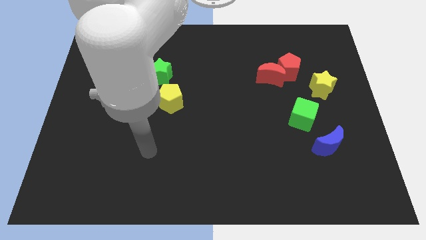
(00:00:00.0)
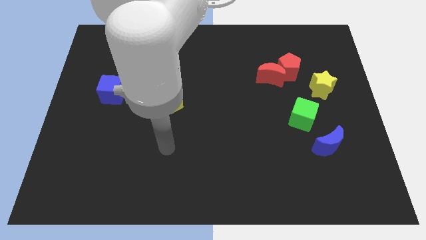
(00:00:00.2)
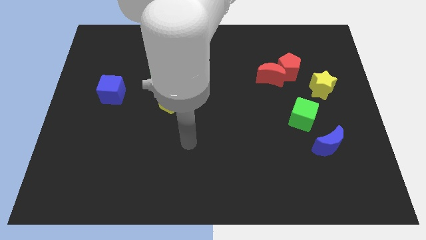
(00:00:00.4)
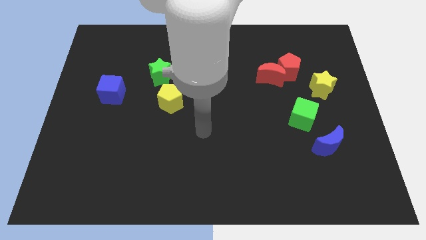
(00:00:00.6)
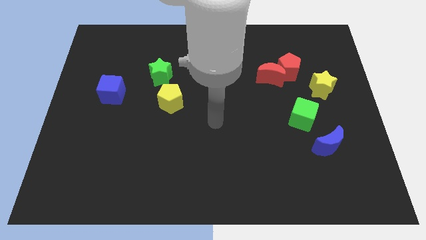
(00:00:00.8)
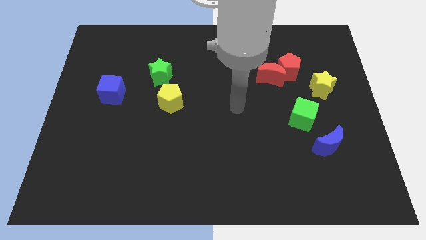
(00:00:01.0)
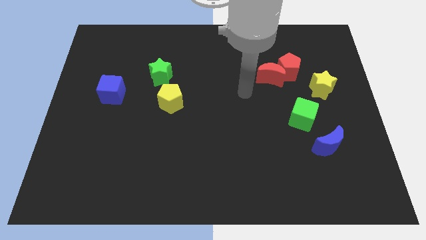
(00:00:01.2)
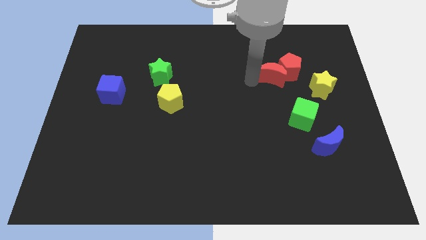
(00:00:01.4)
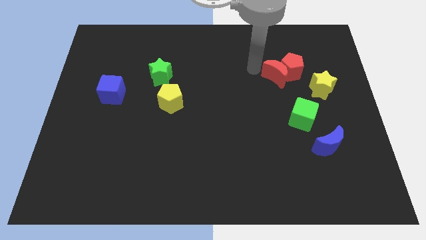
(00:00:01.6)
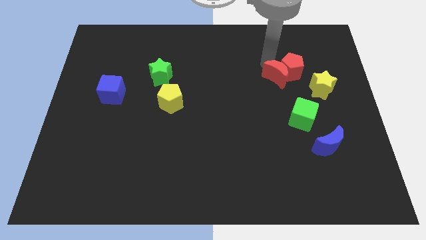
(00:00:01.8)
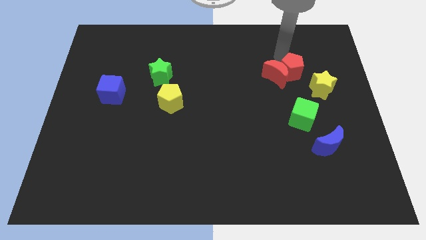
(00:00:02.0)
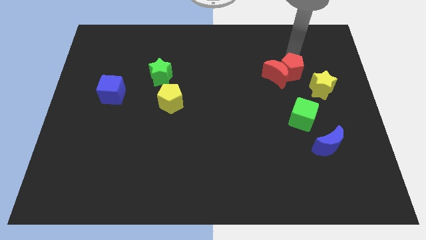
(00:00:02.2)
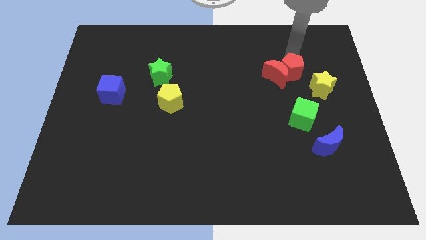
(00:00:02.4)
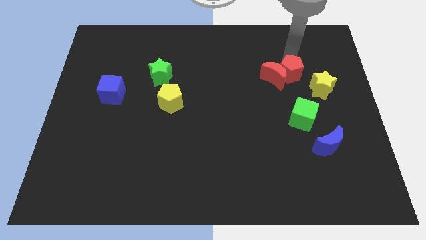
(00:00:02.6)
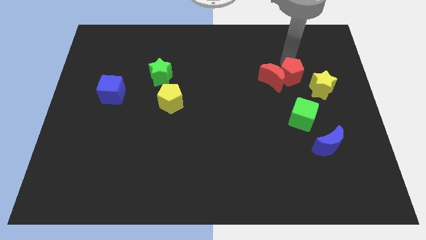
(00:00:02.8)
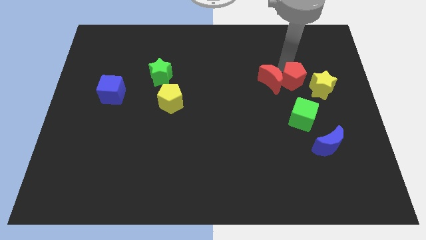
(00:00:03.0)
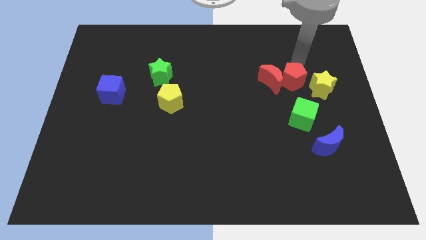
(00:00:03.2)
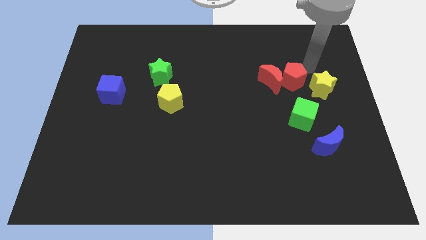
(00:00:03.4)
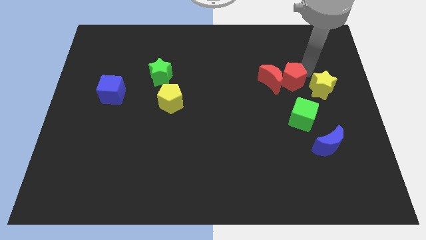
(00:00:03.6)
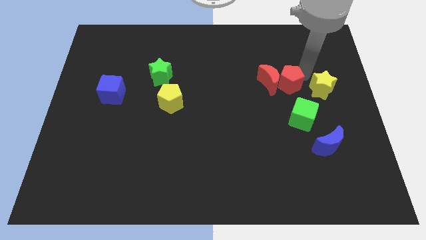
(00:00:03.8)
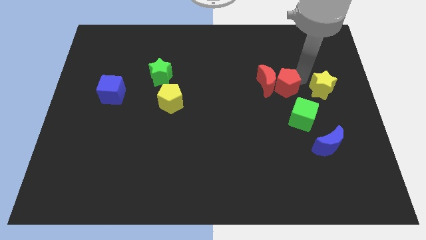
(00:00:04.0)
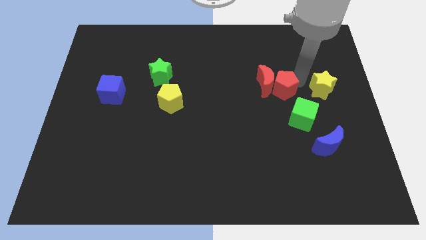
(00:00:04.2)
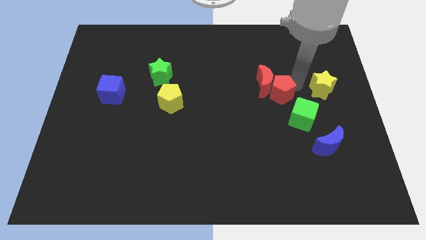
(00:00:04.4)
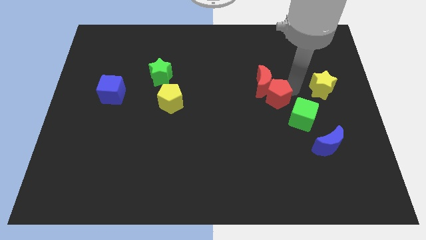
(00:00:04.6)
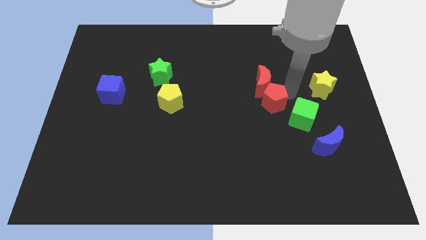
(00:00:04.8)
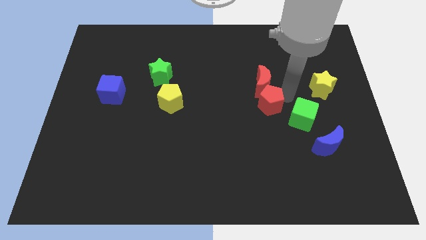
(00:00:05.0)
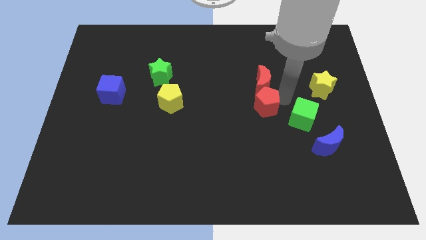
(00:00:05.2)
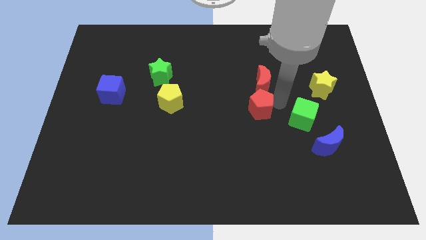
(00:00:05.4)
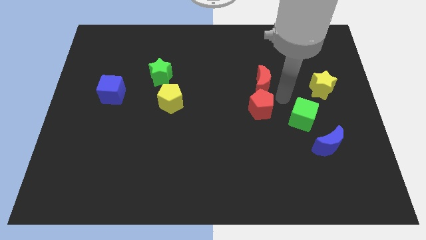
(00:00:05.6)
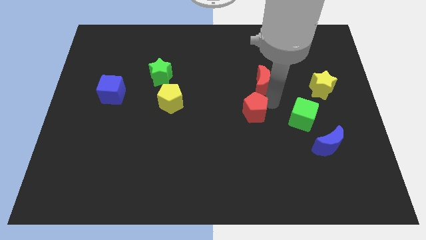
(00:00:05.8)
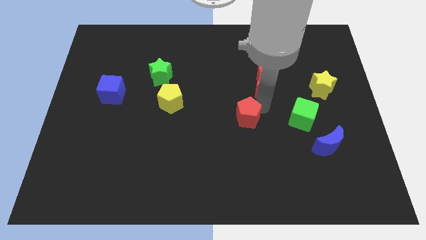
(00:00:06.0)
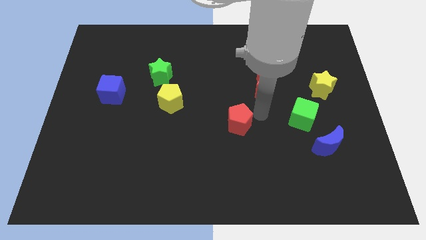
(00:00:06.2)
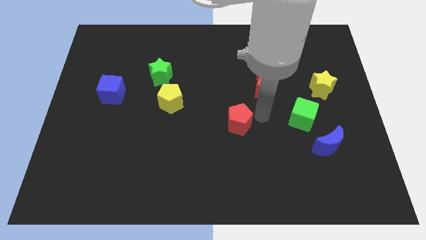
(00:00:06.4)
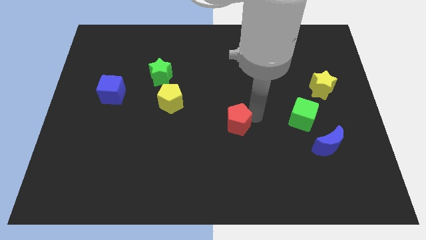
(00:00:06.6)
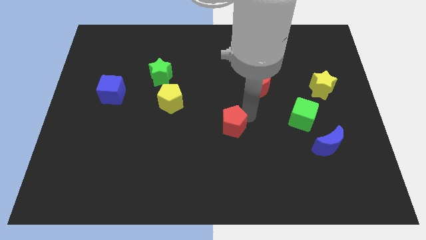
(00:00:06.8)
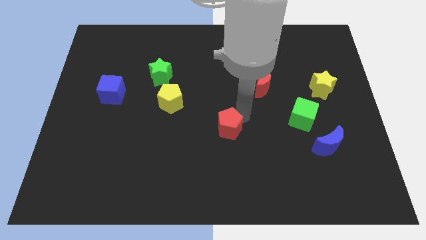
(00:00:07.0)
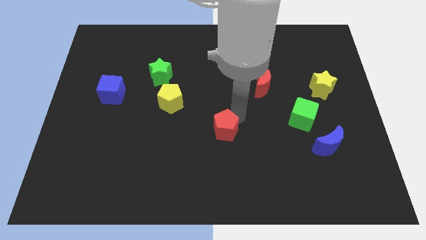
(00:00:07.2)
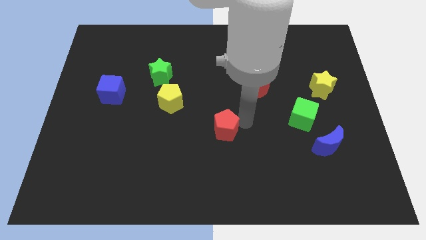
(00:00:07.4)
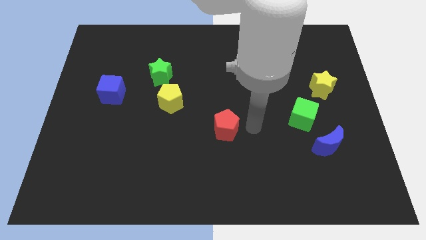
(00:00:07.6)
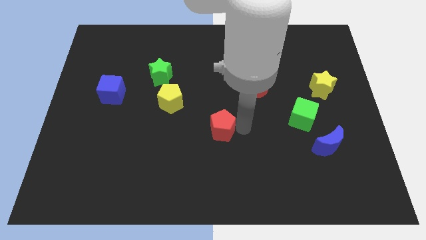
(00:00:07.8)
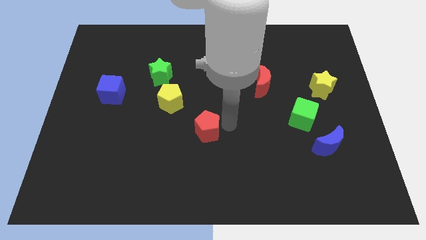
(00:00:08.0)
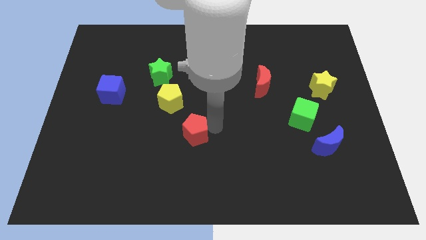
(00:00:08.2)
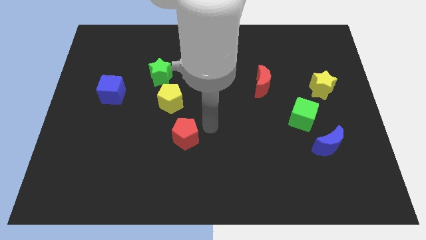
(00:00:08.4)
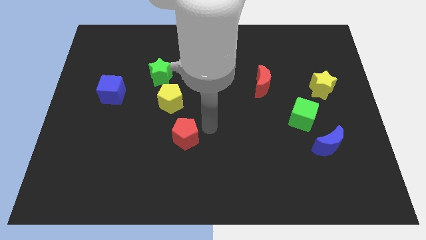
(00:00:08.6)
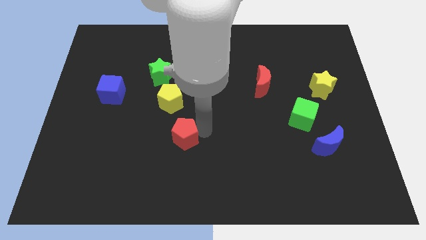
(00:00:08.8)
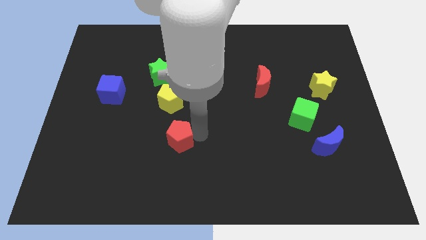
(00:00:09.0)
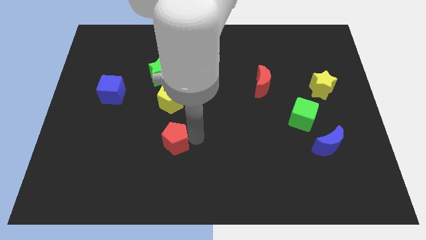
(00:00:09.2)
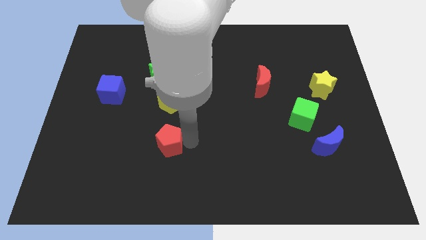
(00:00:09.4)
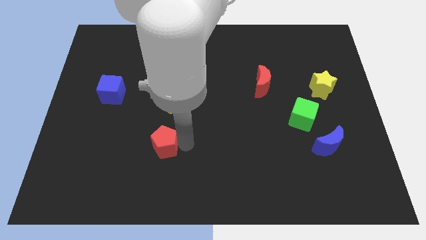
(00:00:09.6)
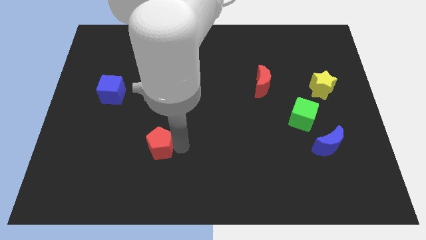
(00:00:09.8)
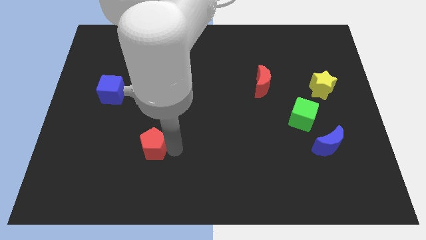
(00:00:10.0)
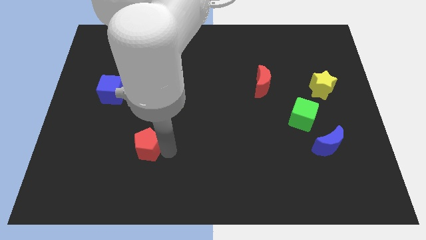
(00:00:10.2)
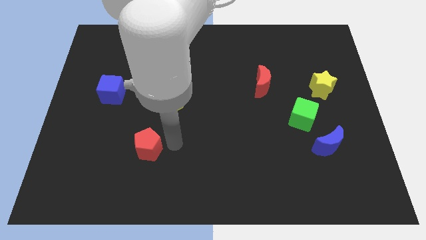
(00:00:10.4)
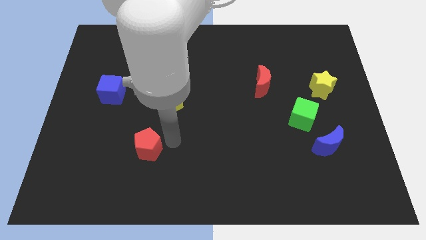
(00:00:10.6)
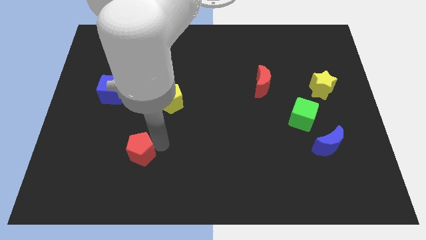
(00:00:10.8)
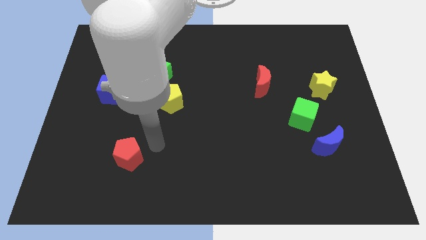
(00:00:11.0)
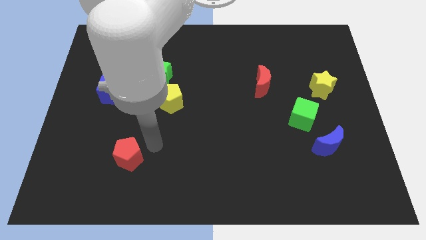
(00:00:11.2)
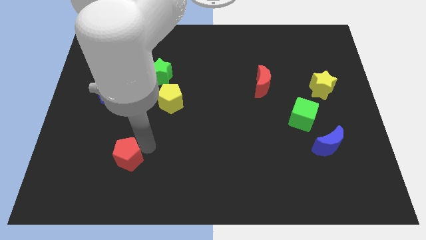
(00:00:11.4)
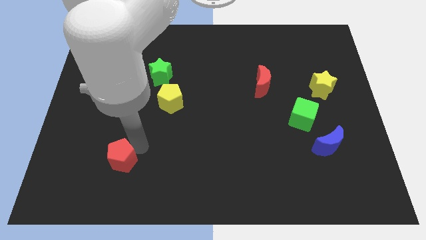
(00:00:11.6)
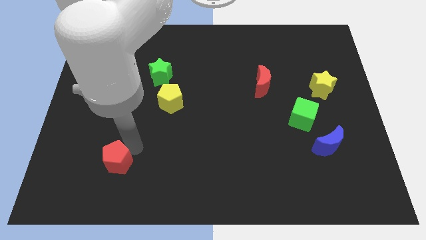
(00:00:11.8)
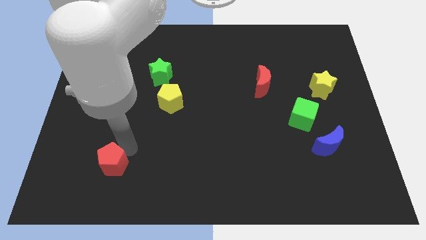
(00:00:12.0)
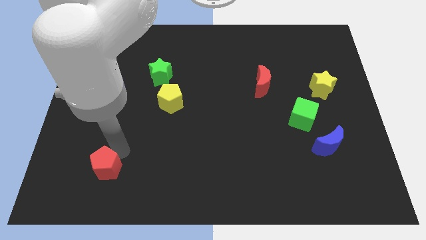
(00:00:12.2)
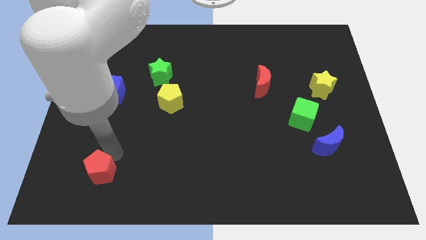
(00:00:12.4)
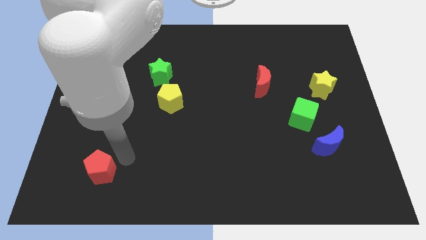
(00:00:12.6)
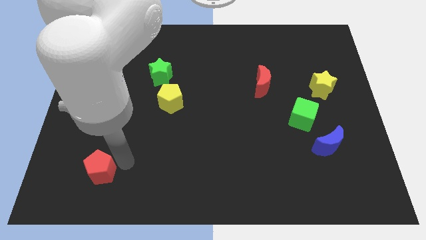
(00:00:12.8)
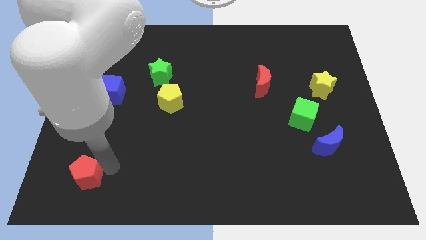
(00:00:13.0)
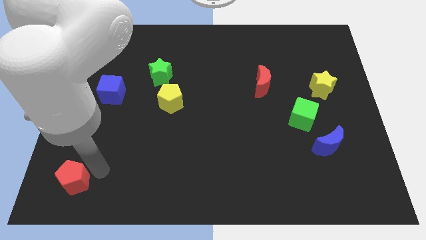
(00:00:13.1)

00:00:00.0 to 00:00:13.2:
slide the red pentagon to the lower left corner
